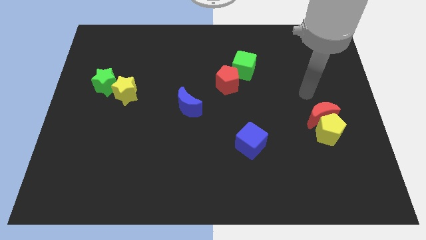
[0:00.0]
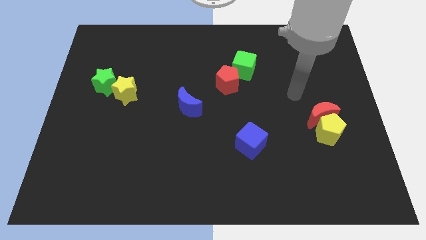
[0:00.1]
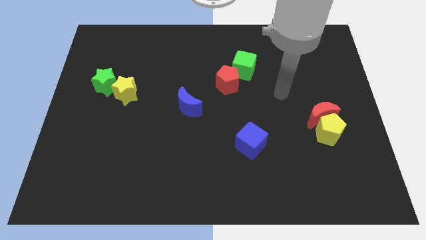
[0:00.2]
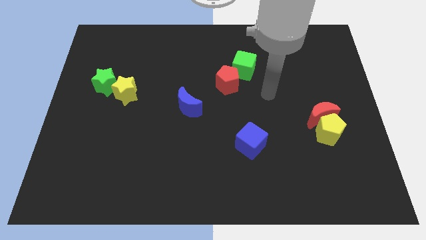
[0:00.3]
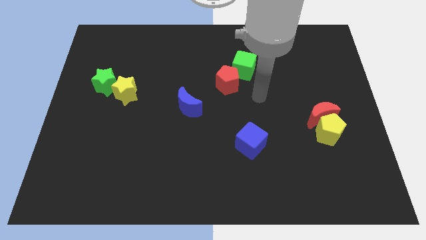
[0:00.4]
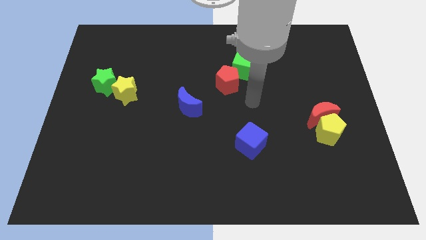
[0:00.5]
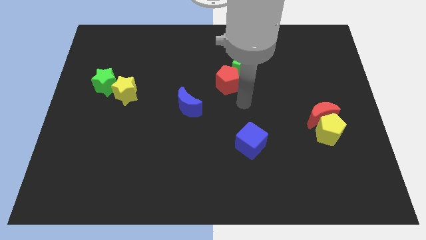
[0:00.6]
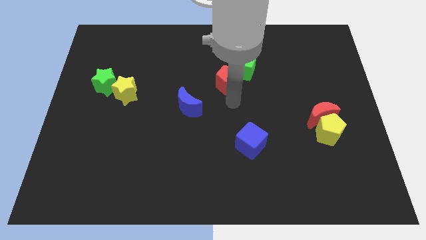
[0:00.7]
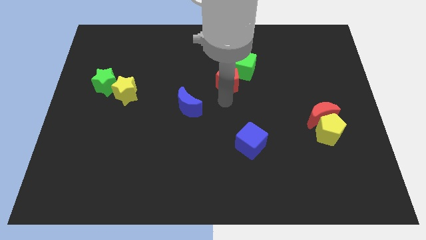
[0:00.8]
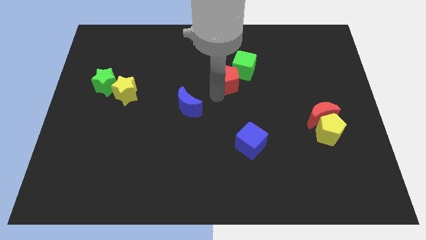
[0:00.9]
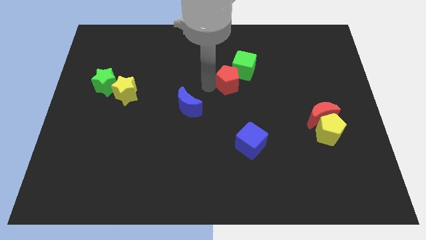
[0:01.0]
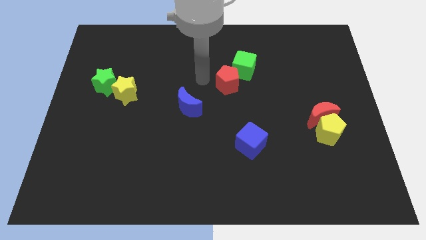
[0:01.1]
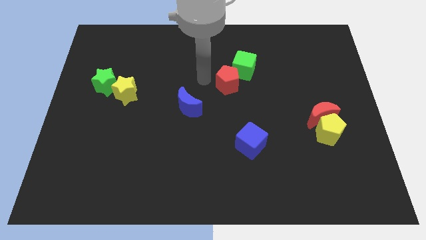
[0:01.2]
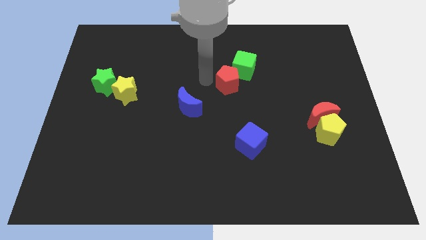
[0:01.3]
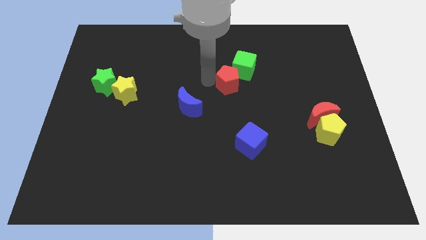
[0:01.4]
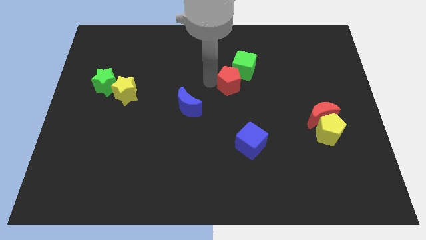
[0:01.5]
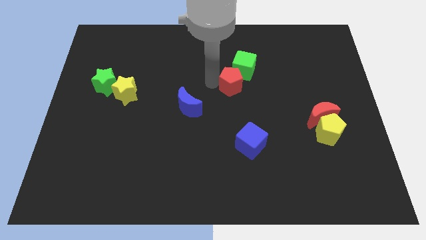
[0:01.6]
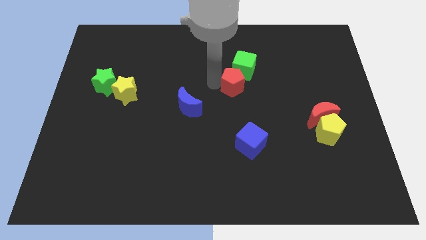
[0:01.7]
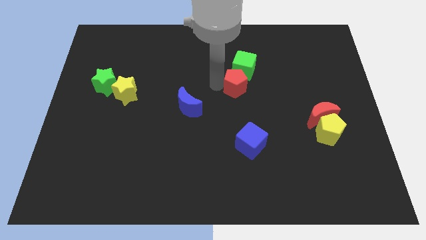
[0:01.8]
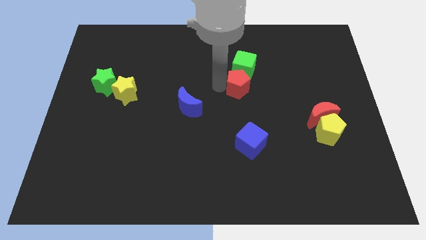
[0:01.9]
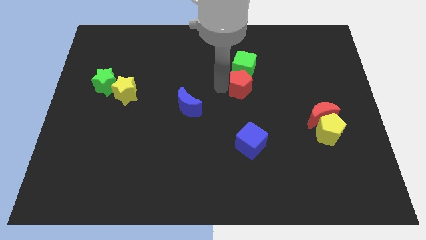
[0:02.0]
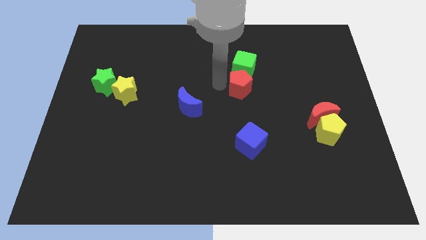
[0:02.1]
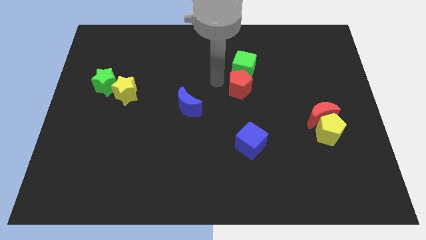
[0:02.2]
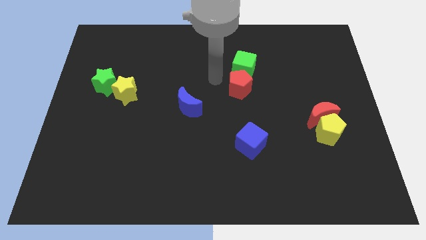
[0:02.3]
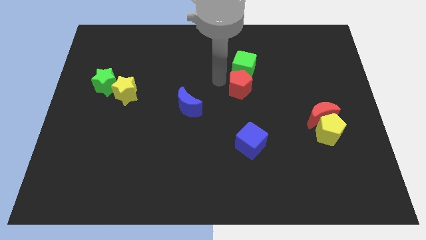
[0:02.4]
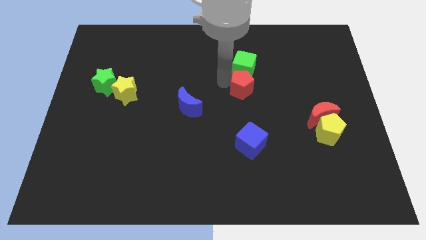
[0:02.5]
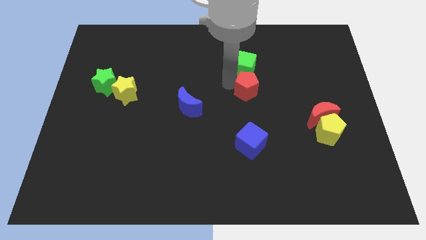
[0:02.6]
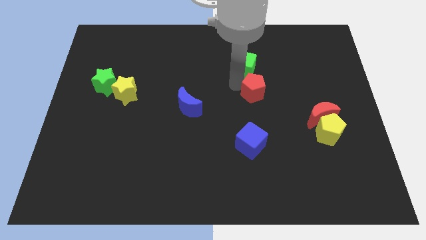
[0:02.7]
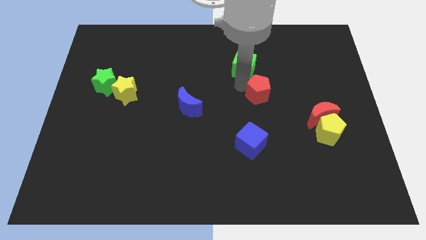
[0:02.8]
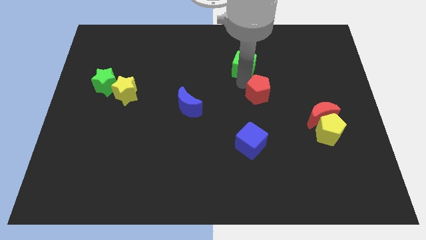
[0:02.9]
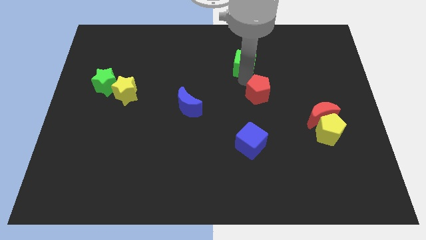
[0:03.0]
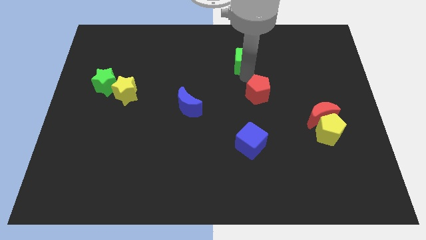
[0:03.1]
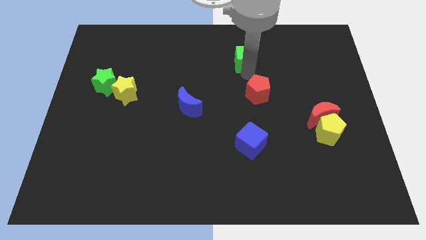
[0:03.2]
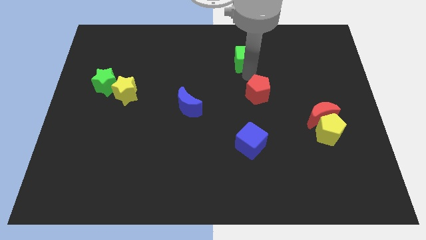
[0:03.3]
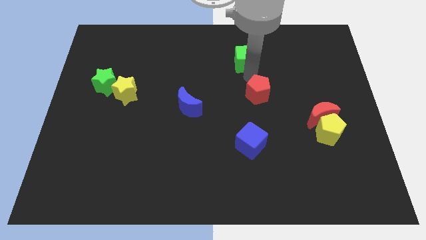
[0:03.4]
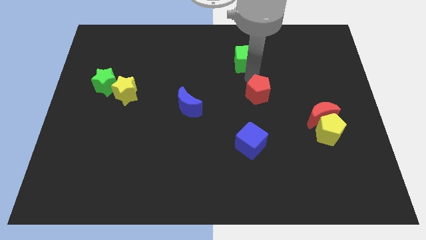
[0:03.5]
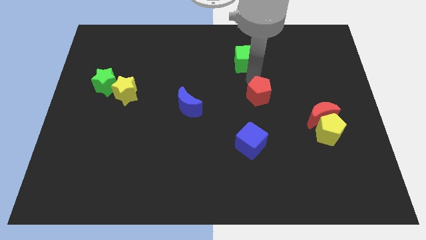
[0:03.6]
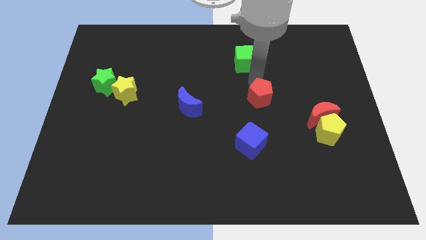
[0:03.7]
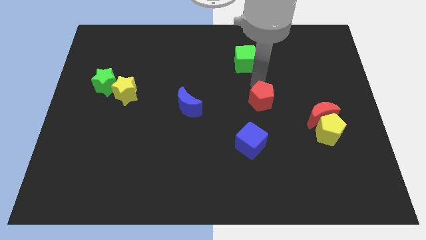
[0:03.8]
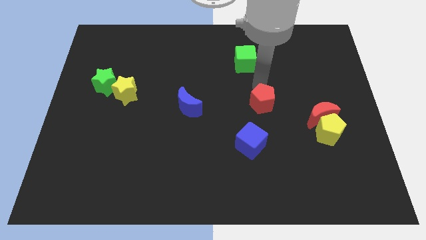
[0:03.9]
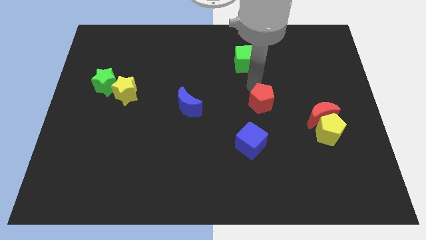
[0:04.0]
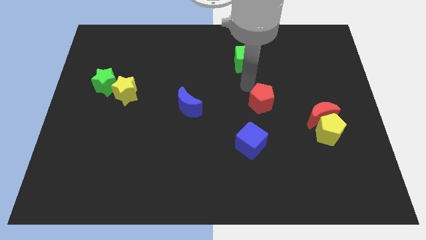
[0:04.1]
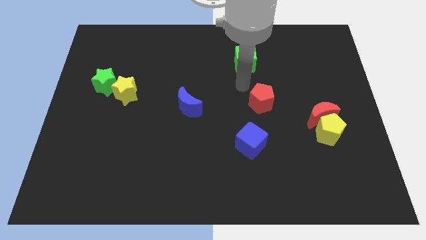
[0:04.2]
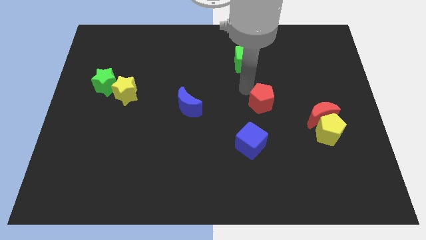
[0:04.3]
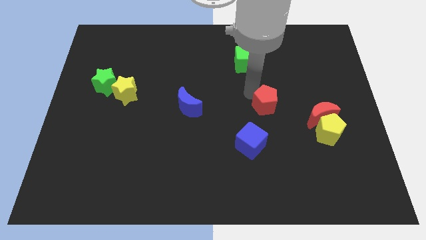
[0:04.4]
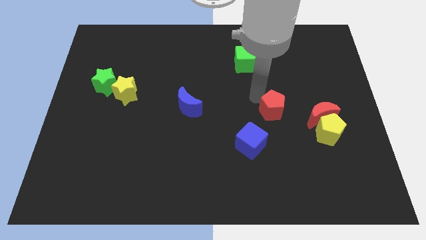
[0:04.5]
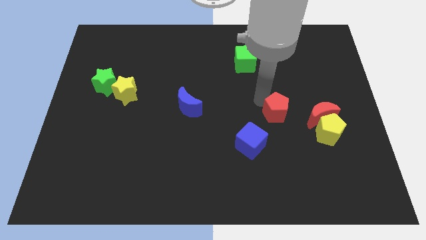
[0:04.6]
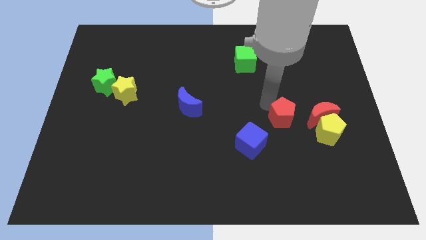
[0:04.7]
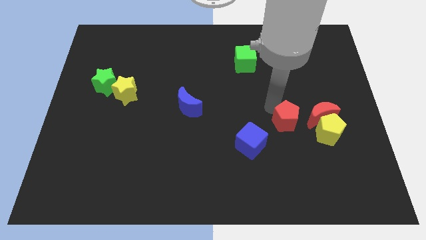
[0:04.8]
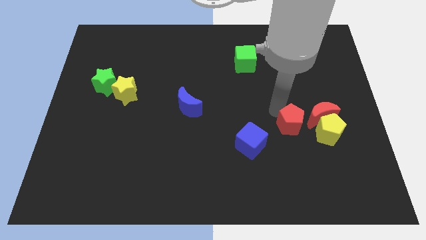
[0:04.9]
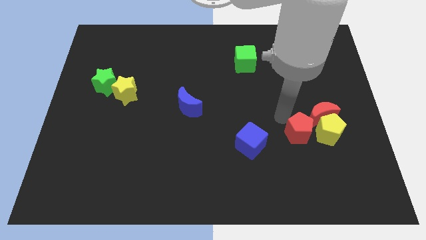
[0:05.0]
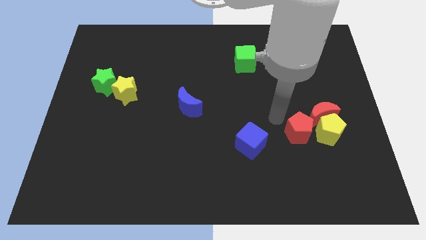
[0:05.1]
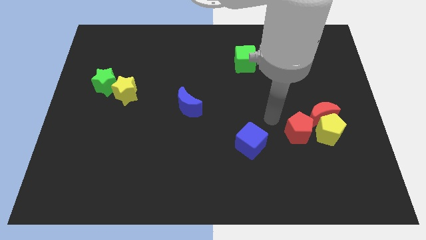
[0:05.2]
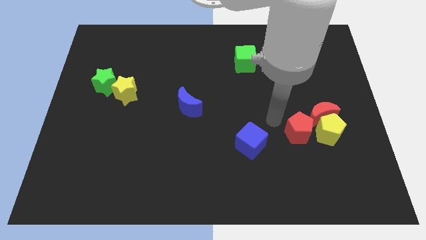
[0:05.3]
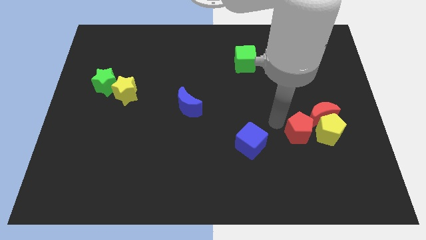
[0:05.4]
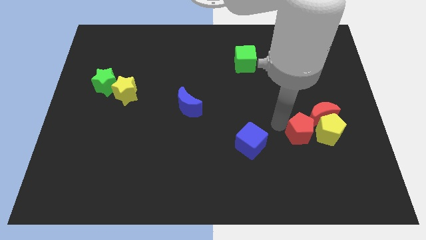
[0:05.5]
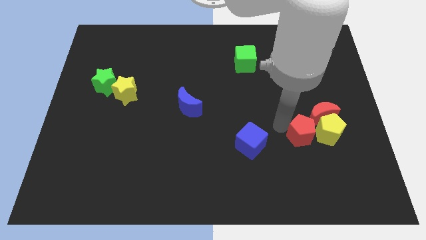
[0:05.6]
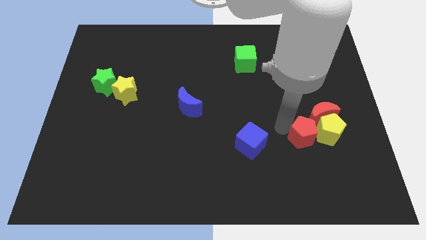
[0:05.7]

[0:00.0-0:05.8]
move the red pentagon next to the yellow pentagon

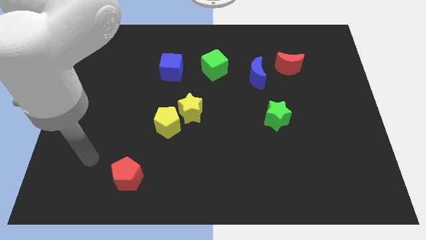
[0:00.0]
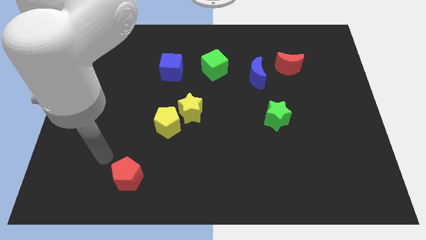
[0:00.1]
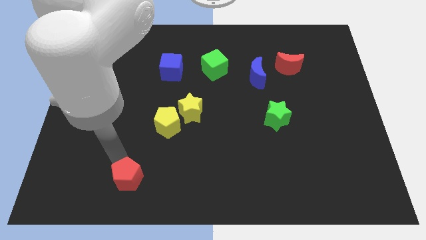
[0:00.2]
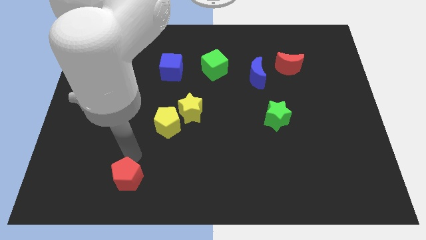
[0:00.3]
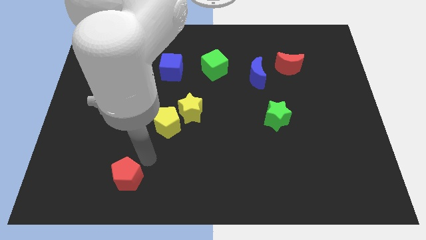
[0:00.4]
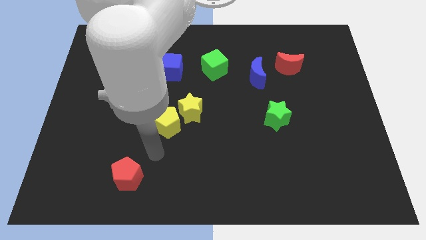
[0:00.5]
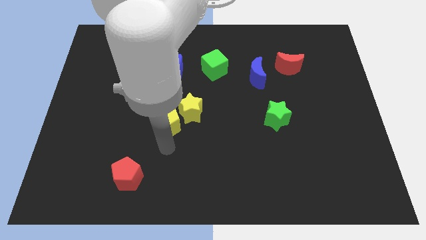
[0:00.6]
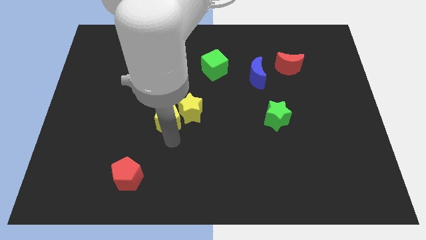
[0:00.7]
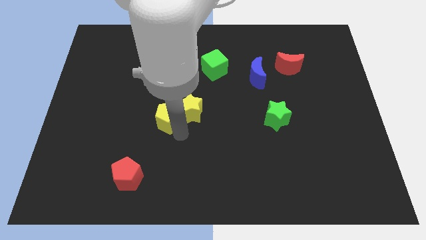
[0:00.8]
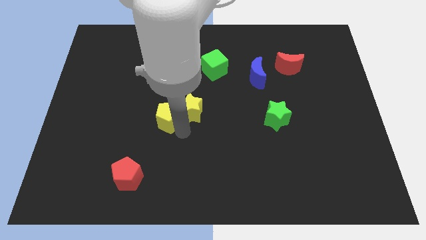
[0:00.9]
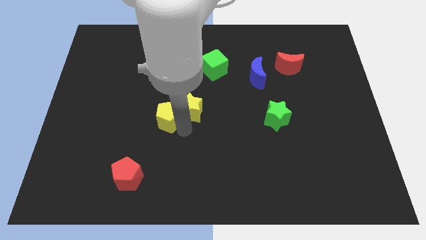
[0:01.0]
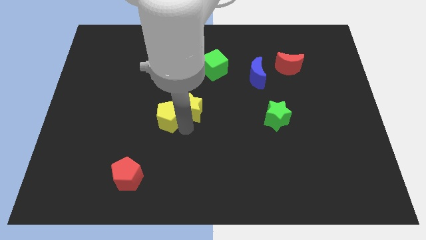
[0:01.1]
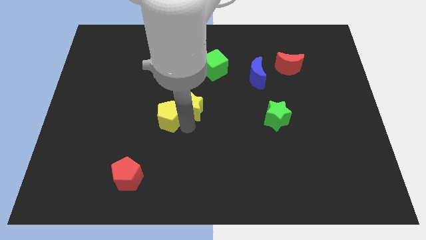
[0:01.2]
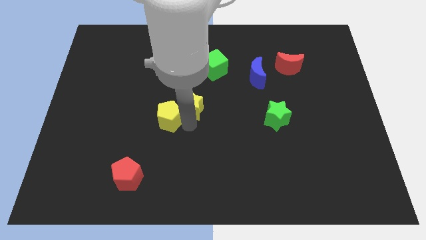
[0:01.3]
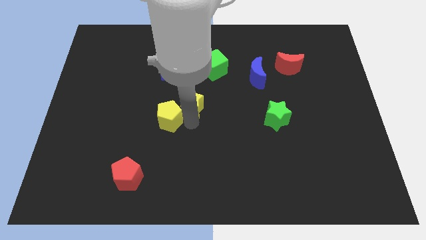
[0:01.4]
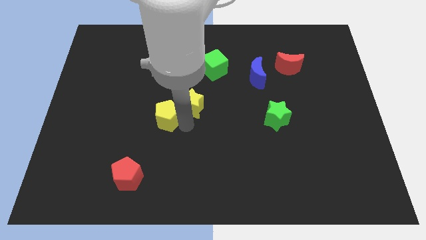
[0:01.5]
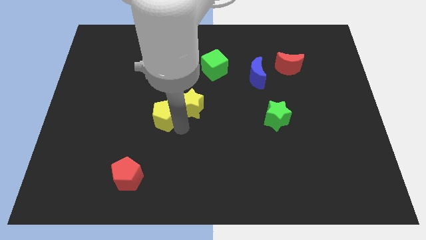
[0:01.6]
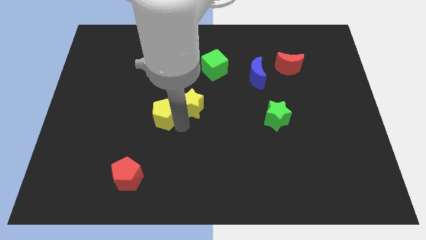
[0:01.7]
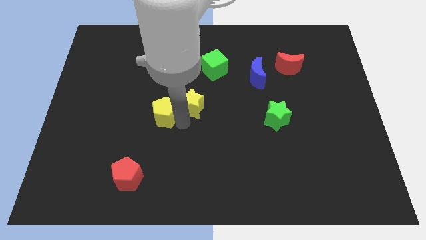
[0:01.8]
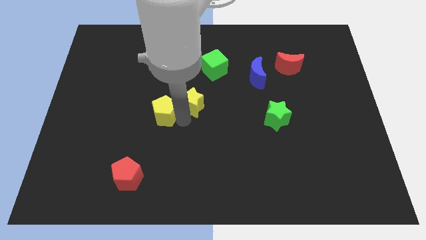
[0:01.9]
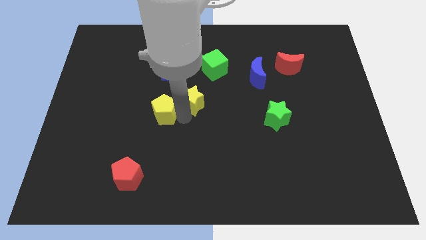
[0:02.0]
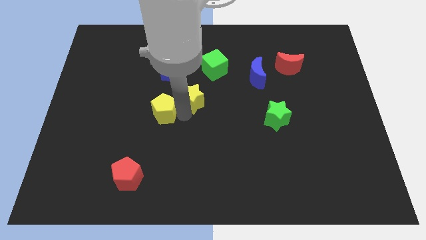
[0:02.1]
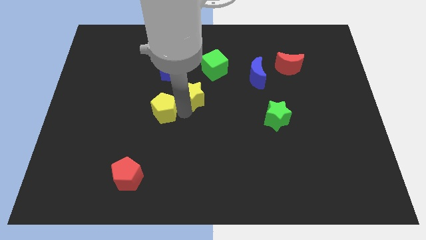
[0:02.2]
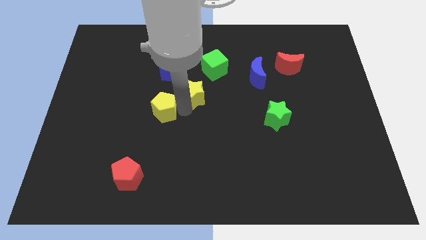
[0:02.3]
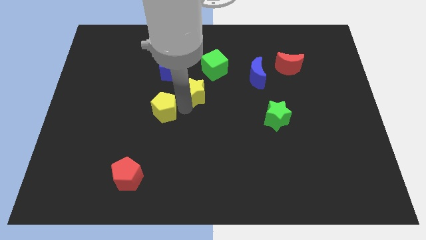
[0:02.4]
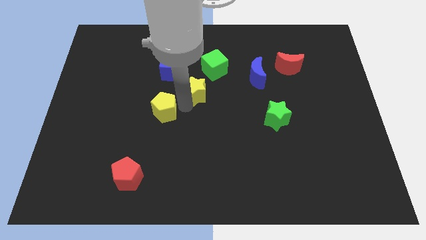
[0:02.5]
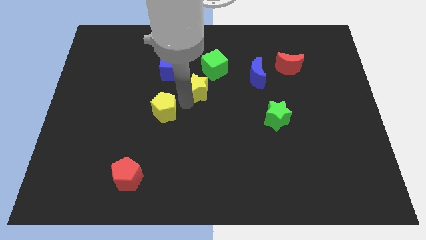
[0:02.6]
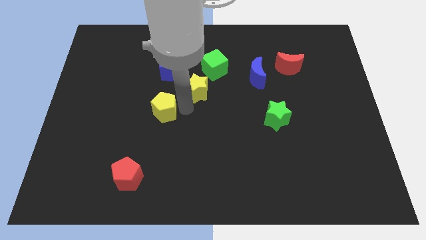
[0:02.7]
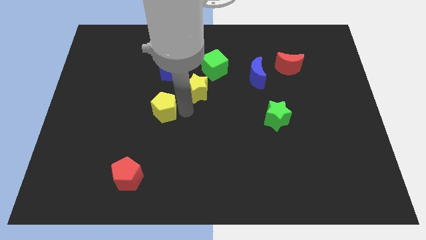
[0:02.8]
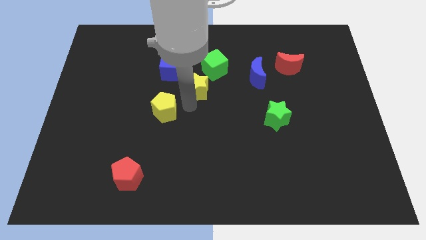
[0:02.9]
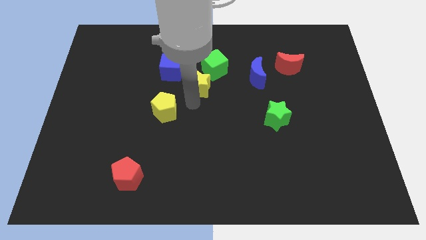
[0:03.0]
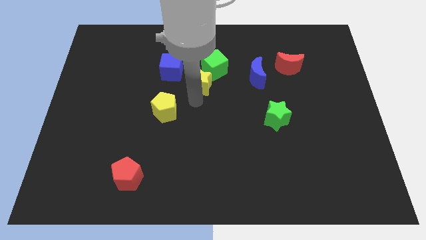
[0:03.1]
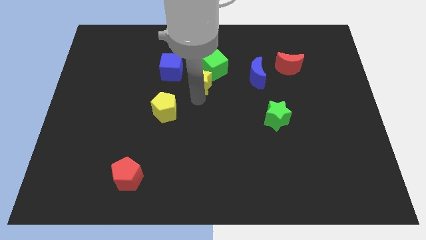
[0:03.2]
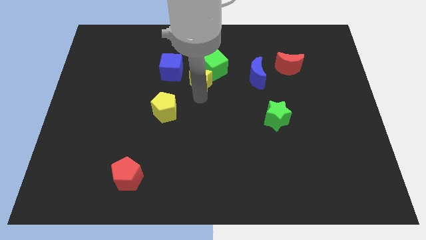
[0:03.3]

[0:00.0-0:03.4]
slide the yellow star next to the green cube
